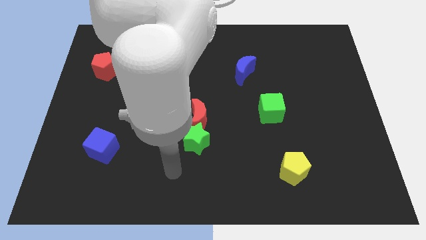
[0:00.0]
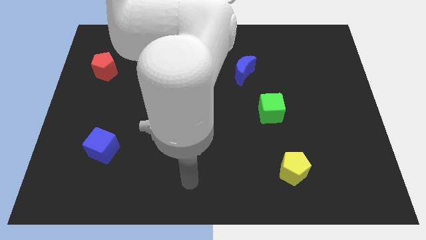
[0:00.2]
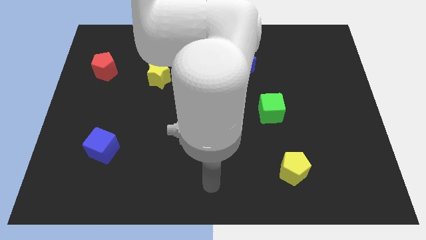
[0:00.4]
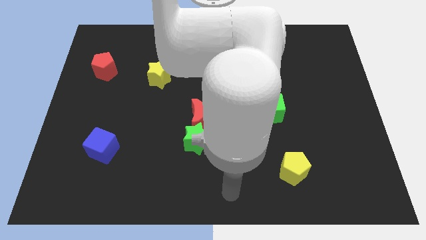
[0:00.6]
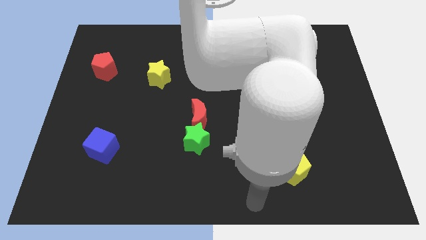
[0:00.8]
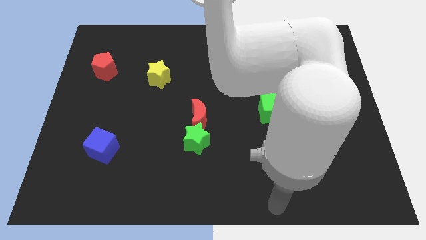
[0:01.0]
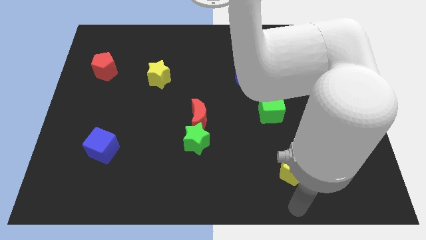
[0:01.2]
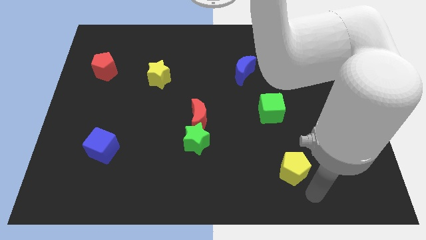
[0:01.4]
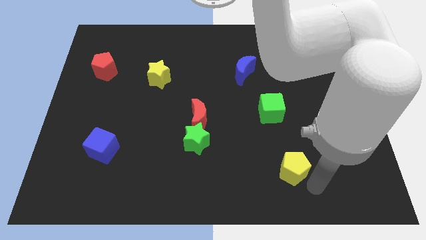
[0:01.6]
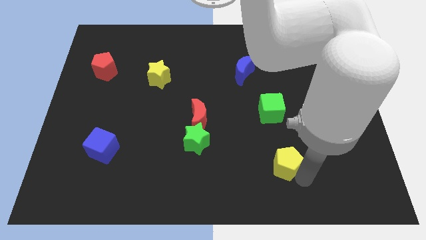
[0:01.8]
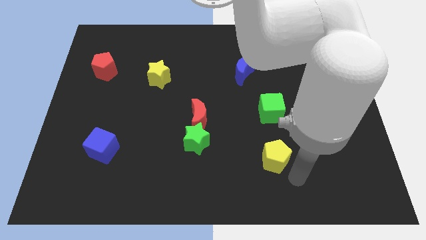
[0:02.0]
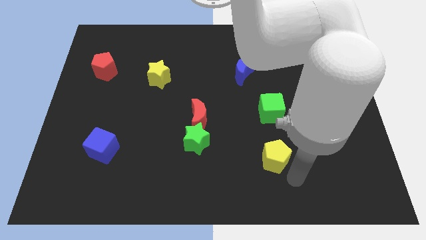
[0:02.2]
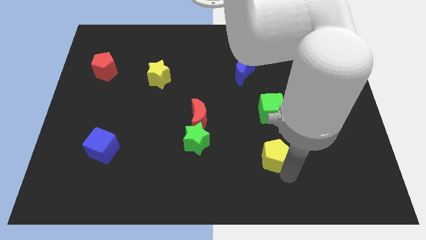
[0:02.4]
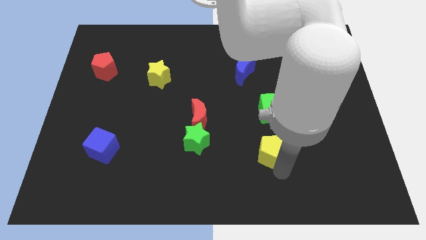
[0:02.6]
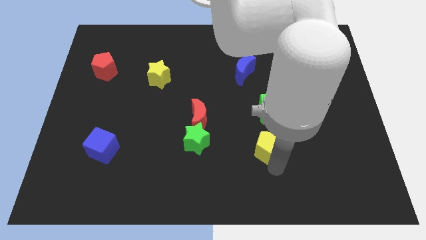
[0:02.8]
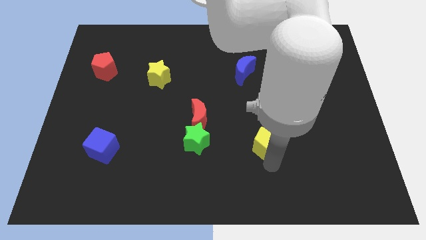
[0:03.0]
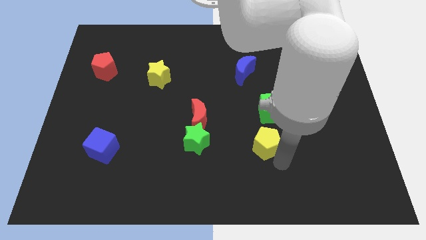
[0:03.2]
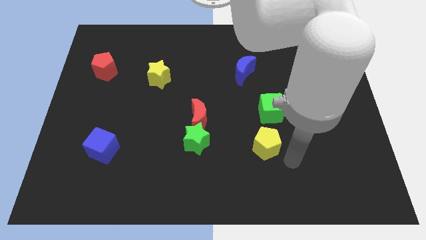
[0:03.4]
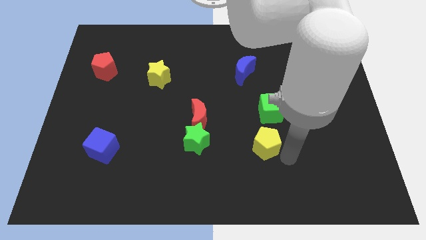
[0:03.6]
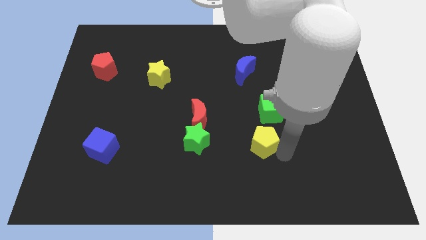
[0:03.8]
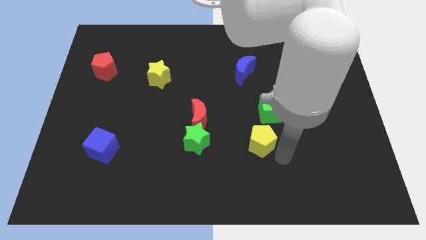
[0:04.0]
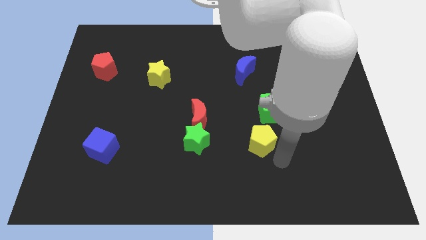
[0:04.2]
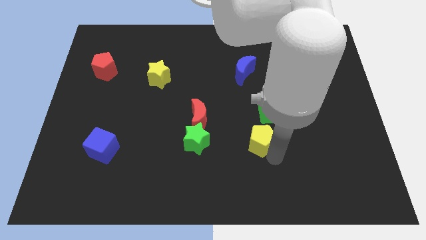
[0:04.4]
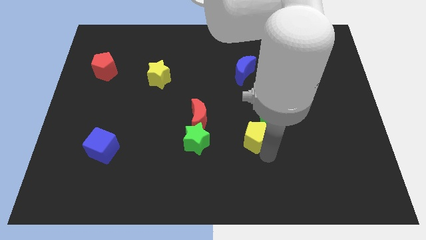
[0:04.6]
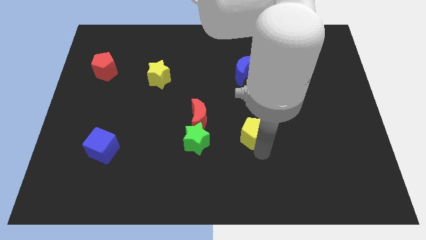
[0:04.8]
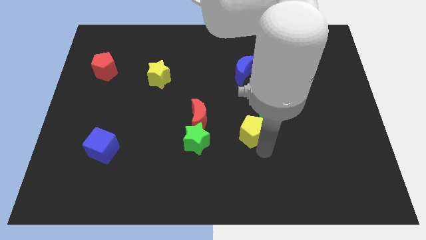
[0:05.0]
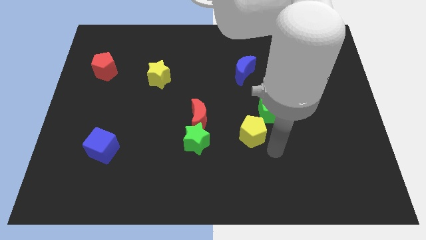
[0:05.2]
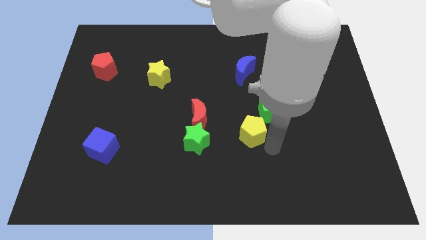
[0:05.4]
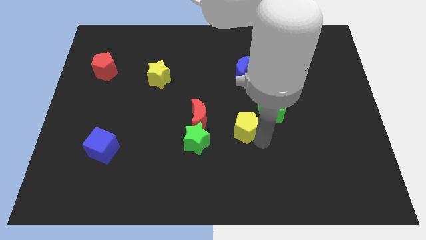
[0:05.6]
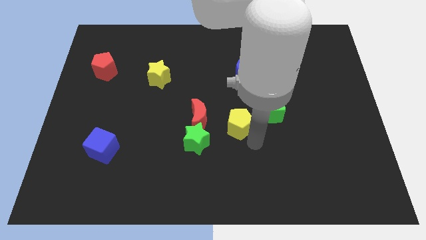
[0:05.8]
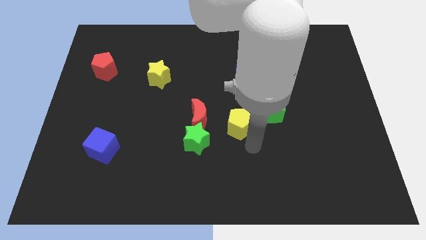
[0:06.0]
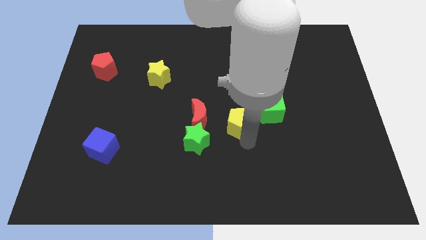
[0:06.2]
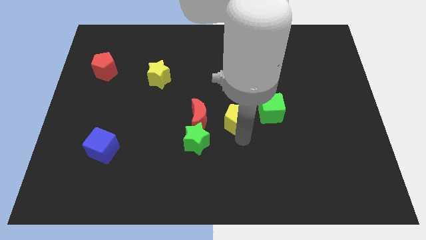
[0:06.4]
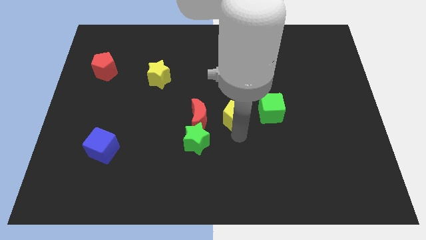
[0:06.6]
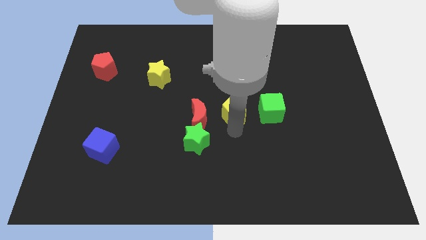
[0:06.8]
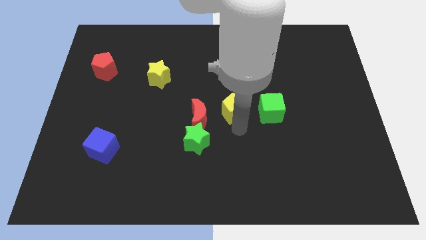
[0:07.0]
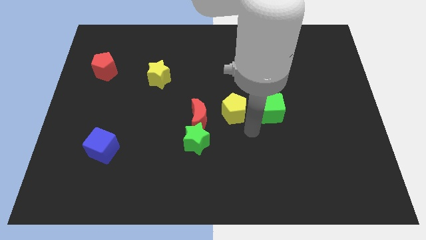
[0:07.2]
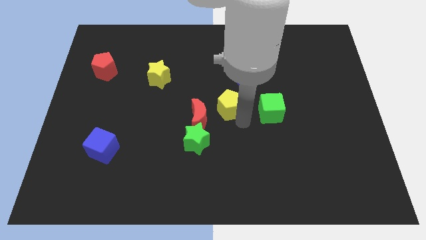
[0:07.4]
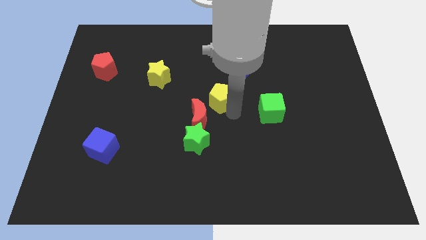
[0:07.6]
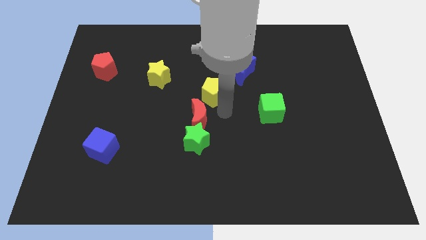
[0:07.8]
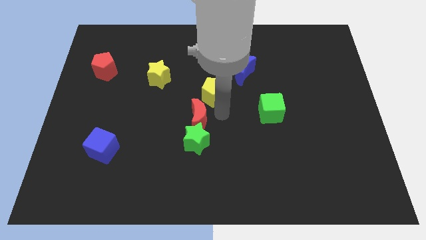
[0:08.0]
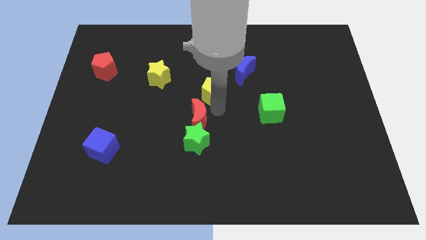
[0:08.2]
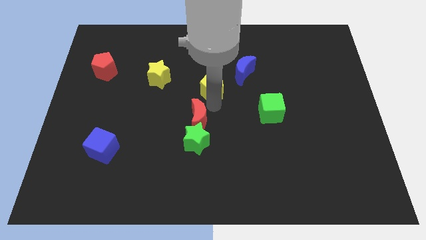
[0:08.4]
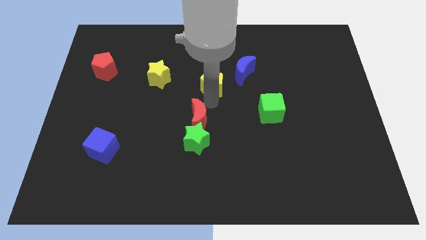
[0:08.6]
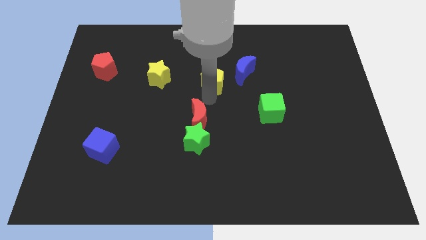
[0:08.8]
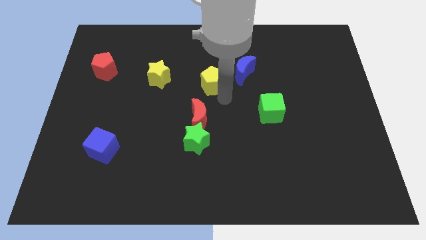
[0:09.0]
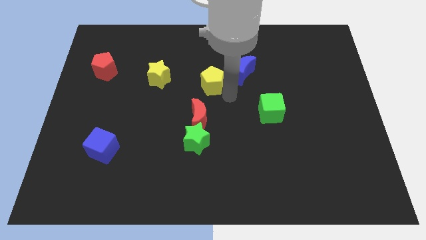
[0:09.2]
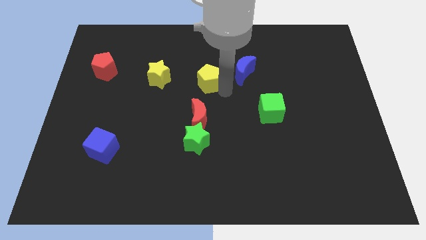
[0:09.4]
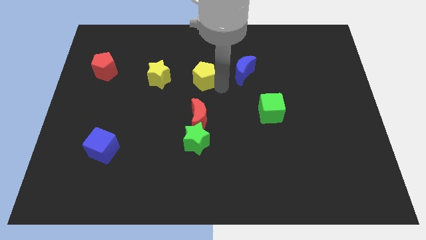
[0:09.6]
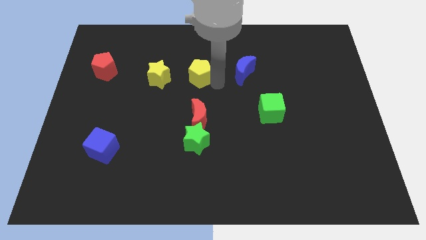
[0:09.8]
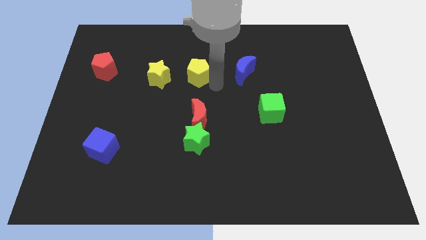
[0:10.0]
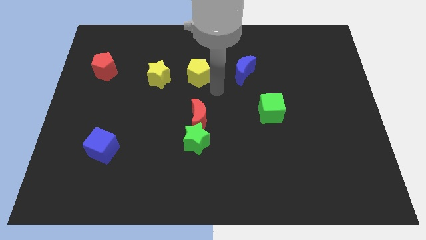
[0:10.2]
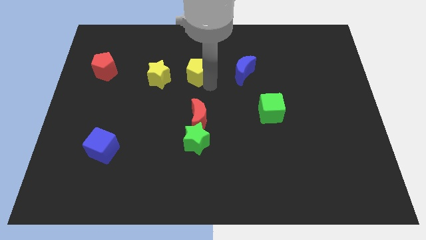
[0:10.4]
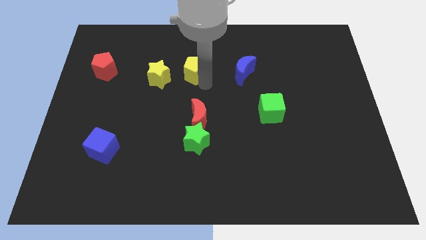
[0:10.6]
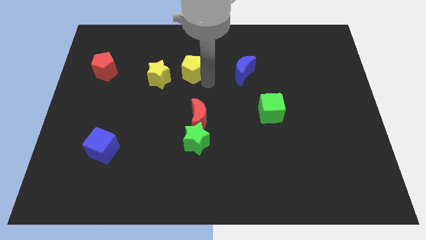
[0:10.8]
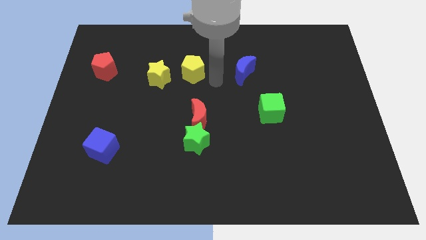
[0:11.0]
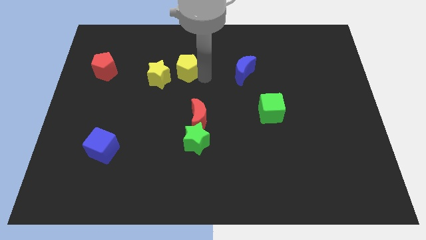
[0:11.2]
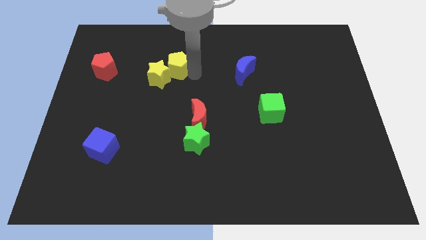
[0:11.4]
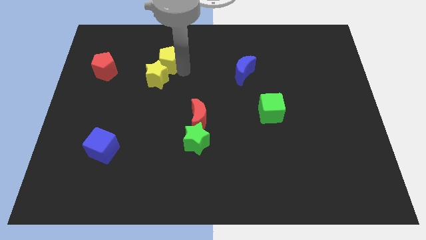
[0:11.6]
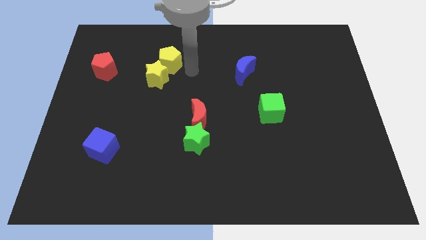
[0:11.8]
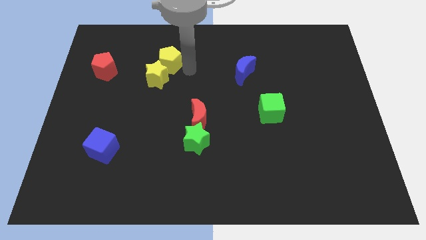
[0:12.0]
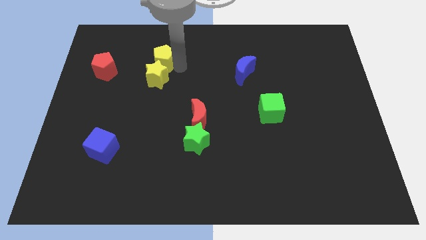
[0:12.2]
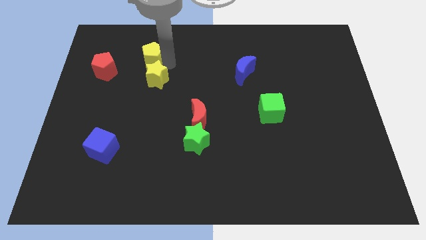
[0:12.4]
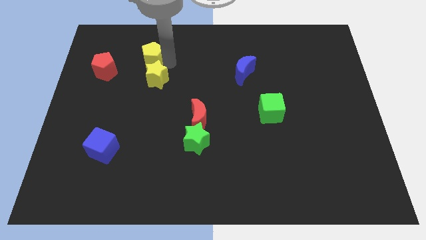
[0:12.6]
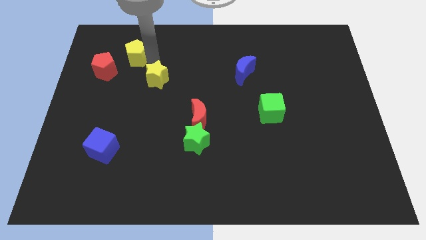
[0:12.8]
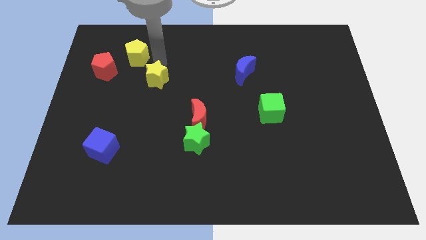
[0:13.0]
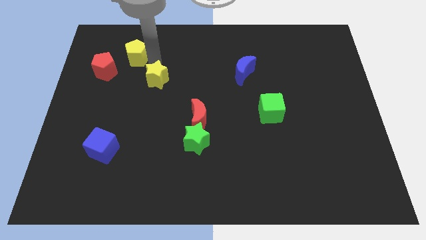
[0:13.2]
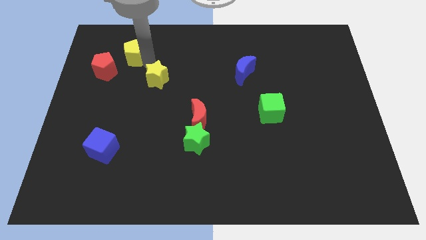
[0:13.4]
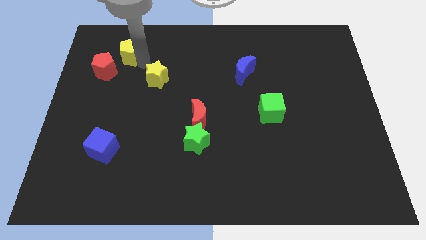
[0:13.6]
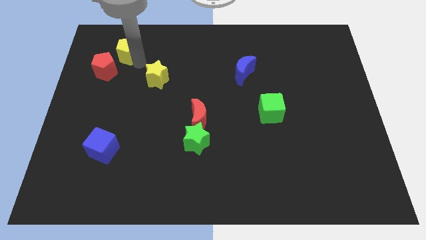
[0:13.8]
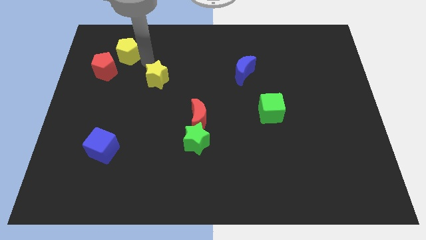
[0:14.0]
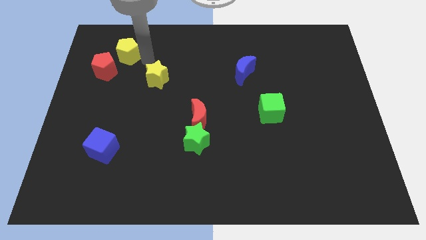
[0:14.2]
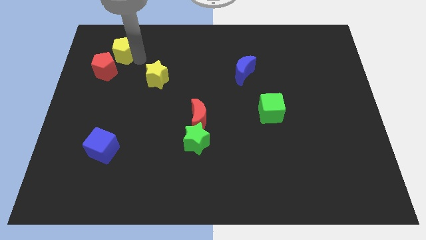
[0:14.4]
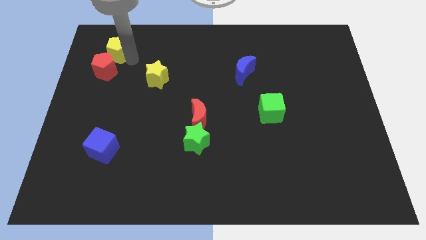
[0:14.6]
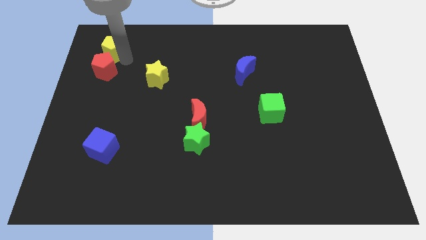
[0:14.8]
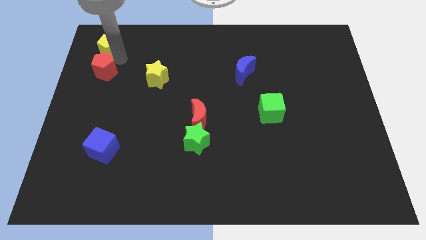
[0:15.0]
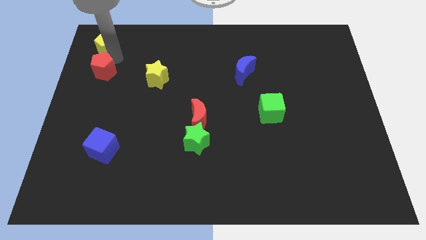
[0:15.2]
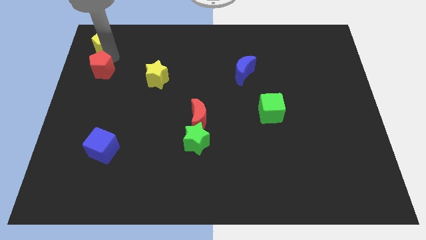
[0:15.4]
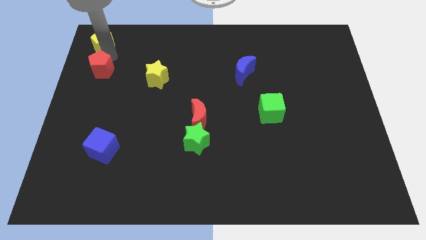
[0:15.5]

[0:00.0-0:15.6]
move the yellow pentagon to the top left
